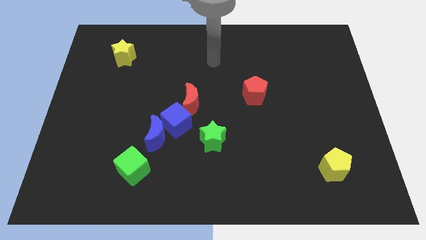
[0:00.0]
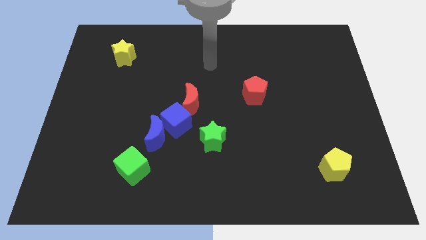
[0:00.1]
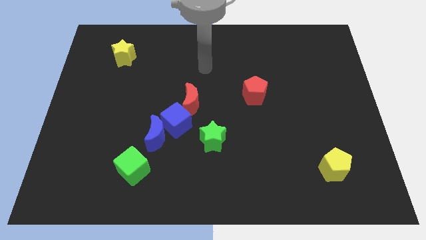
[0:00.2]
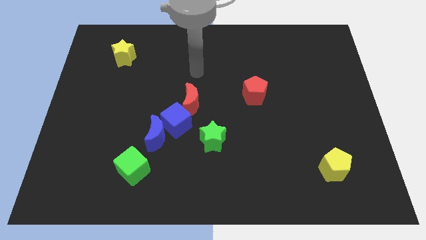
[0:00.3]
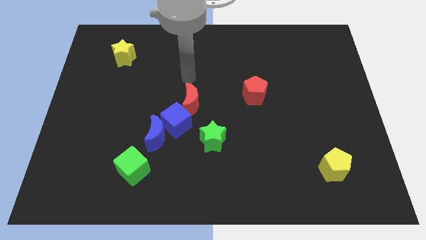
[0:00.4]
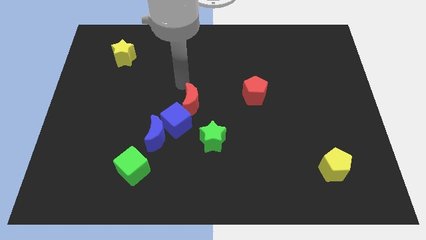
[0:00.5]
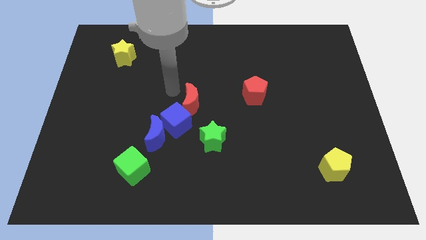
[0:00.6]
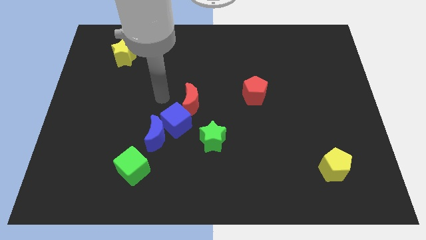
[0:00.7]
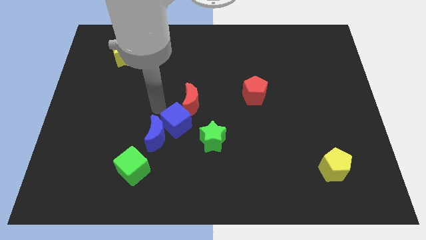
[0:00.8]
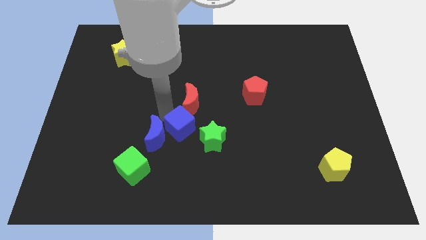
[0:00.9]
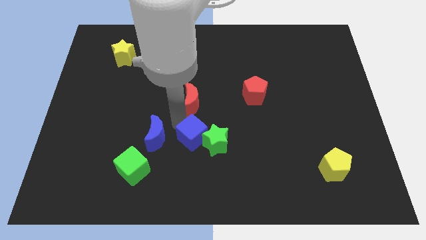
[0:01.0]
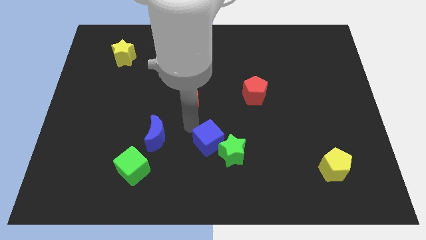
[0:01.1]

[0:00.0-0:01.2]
separate the red moon from the blue cube

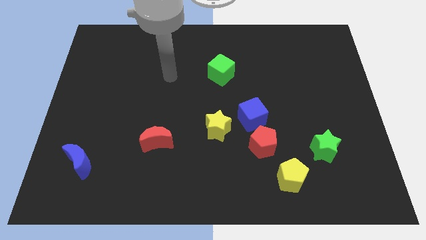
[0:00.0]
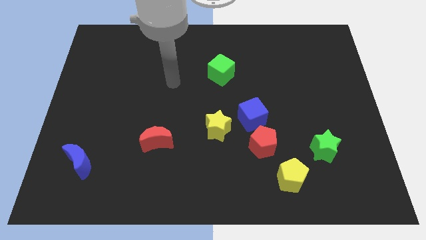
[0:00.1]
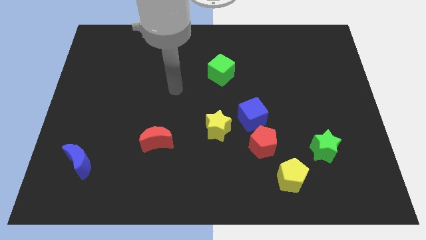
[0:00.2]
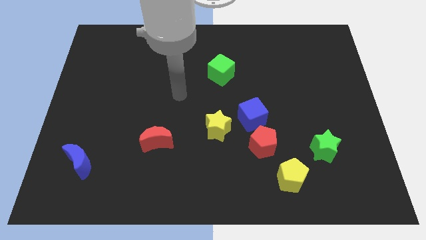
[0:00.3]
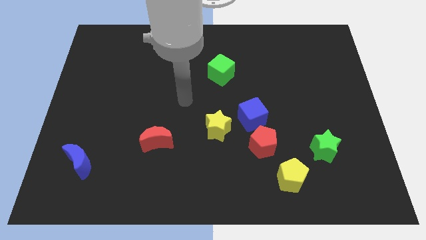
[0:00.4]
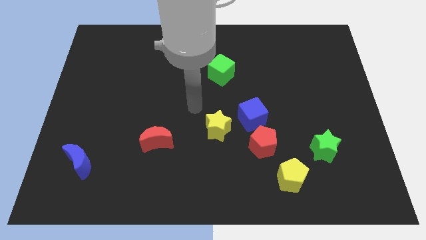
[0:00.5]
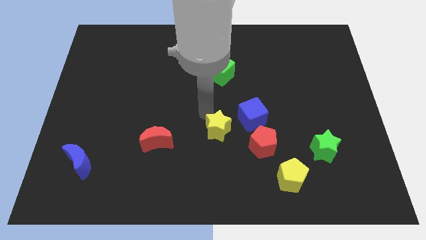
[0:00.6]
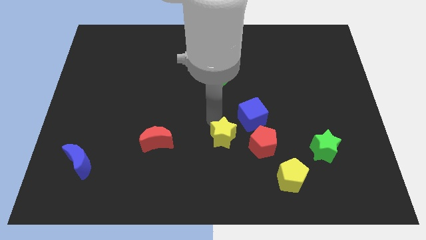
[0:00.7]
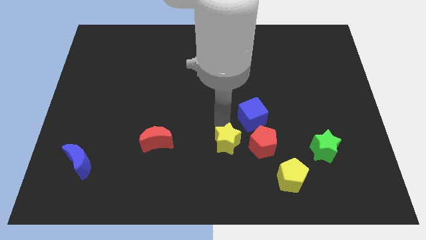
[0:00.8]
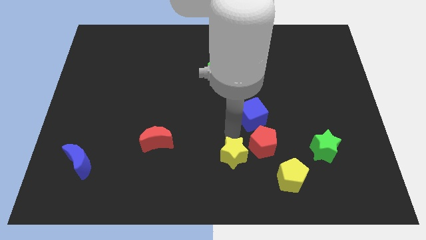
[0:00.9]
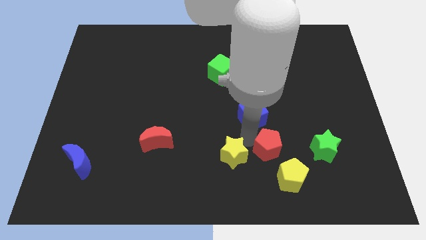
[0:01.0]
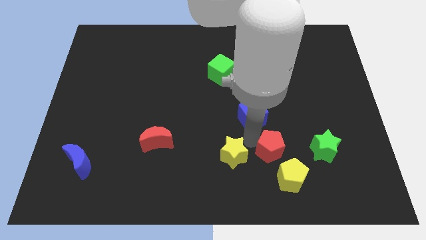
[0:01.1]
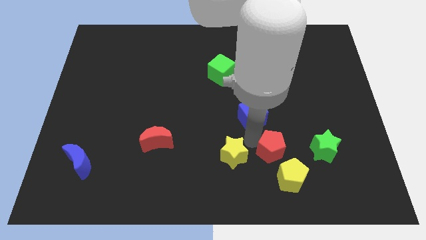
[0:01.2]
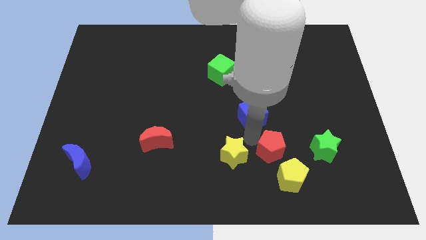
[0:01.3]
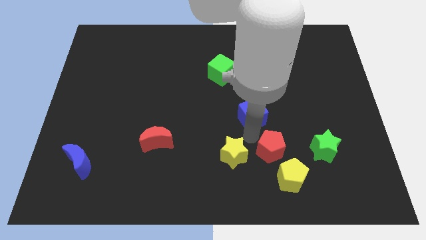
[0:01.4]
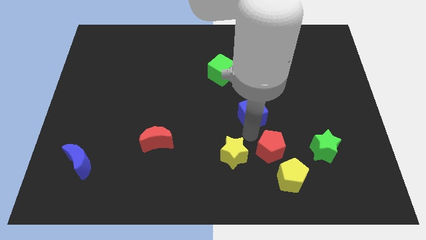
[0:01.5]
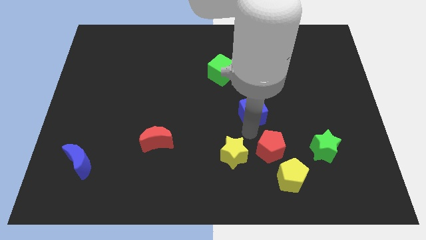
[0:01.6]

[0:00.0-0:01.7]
pull the blue cube apart from the red pentagon and yellow star

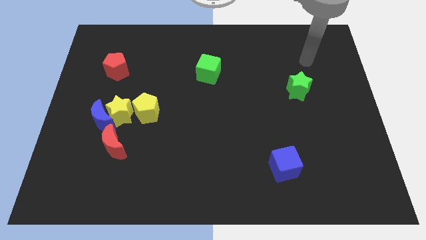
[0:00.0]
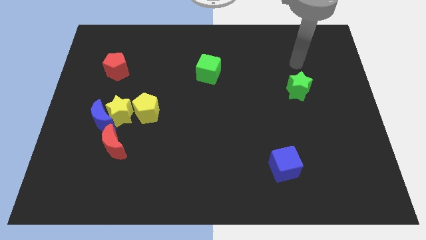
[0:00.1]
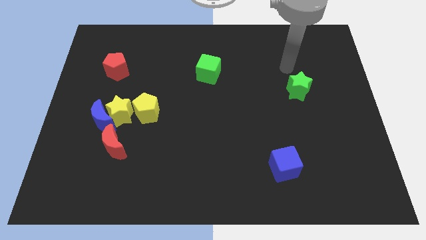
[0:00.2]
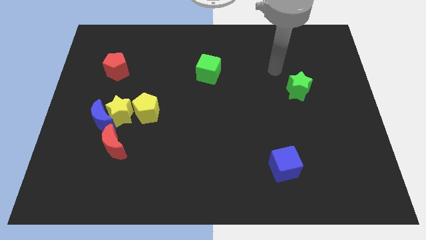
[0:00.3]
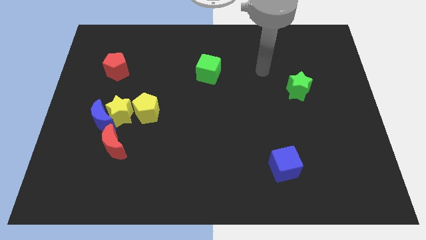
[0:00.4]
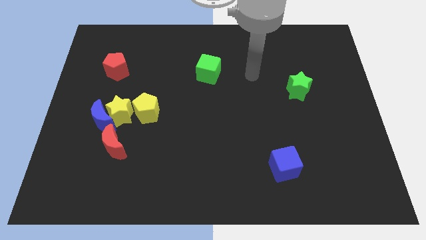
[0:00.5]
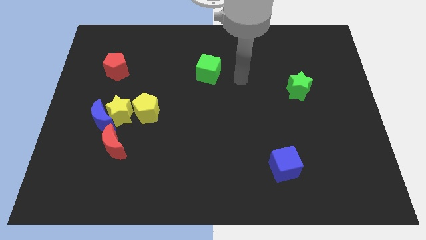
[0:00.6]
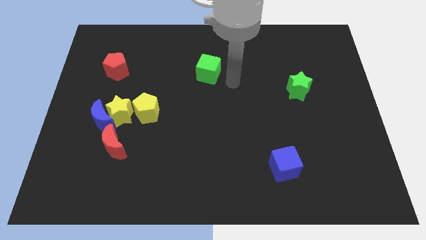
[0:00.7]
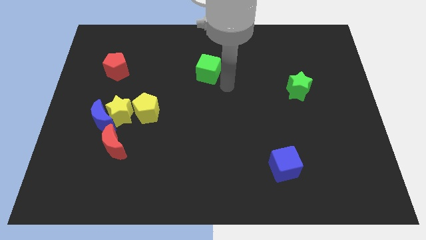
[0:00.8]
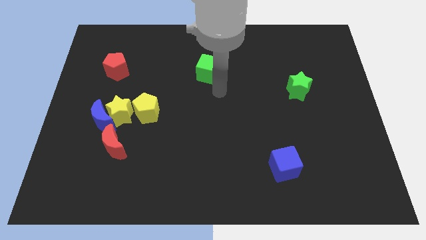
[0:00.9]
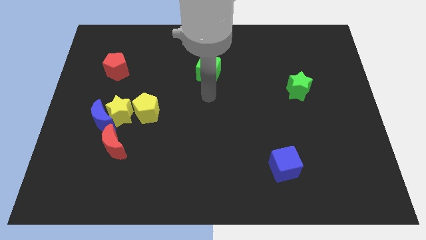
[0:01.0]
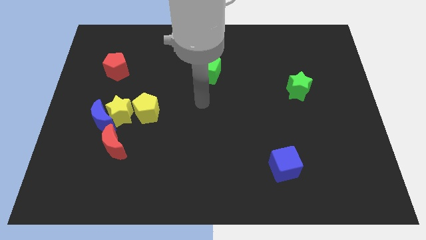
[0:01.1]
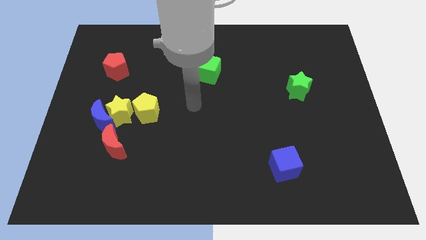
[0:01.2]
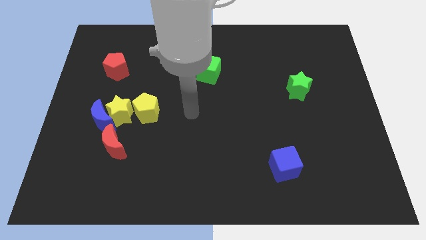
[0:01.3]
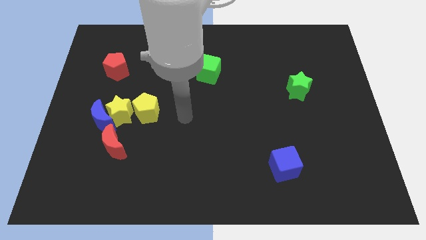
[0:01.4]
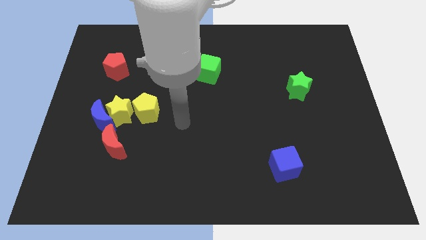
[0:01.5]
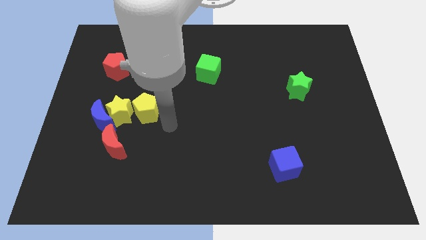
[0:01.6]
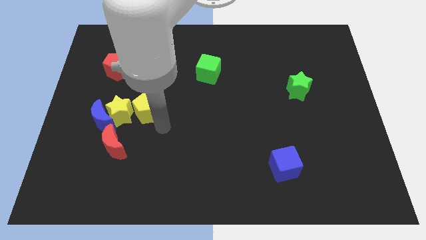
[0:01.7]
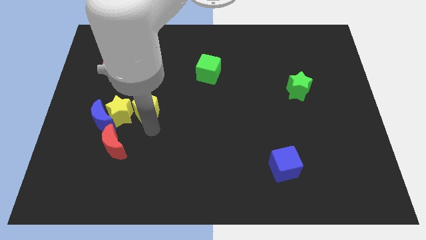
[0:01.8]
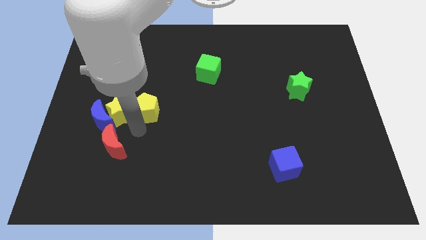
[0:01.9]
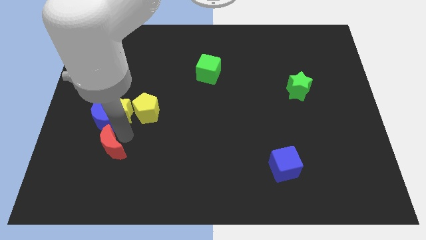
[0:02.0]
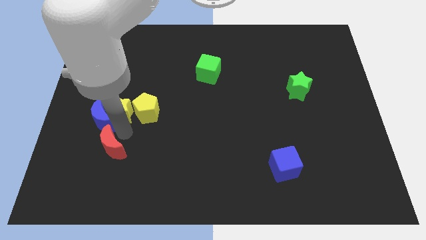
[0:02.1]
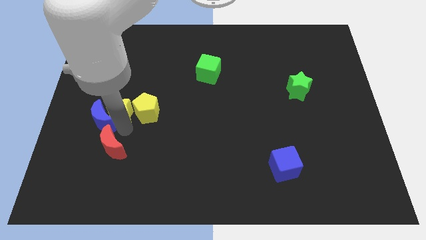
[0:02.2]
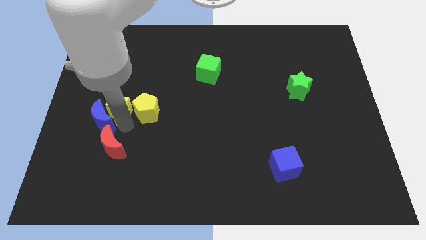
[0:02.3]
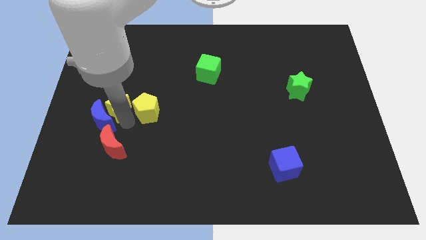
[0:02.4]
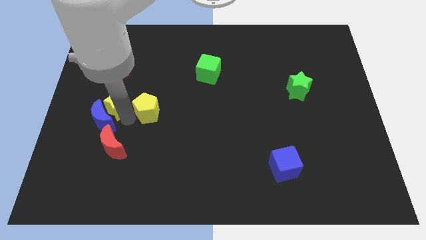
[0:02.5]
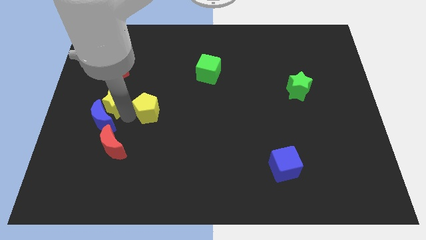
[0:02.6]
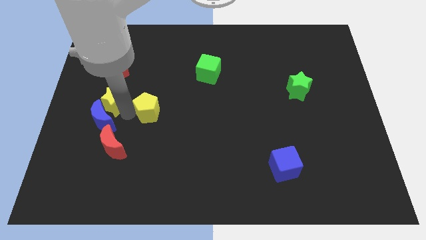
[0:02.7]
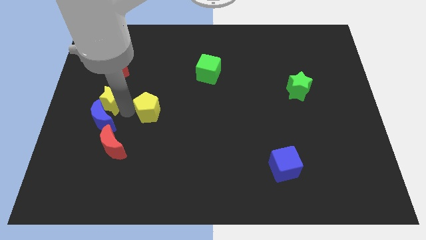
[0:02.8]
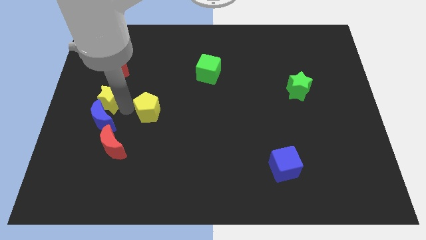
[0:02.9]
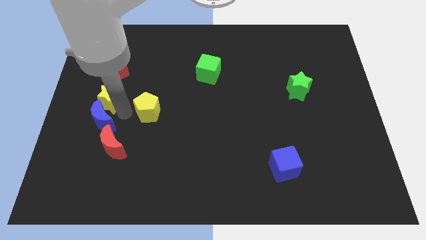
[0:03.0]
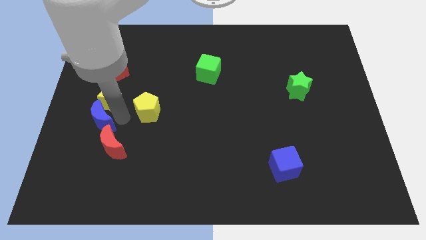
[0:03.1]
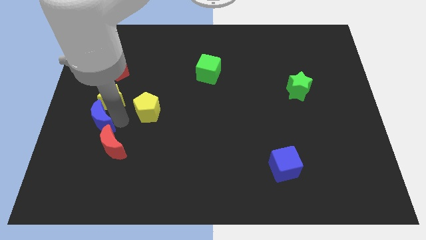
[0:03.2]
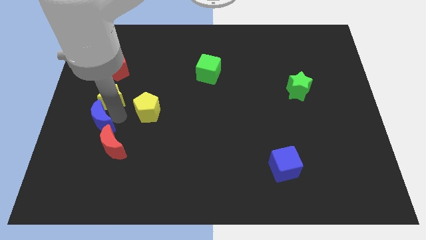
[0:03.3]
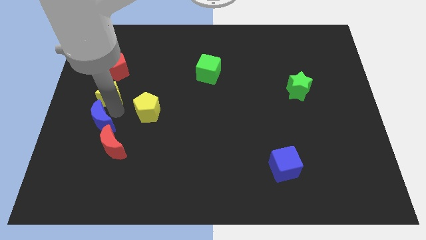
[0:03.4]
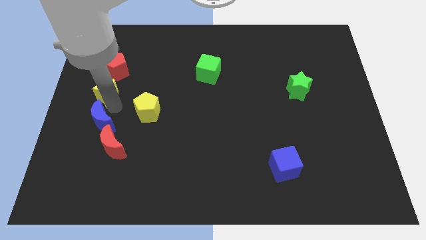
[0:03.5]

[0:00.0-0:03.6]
pull the yellow star apart from the group of blocks

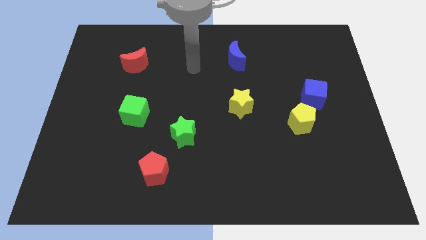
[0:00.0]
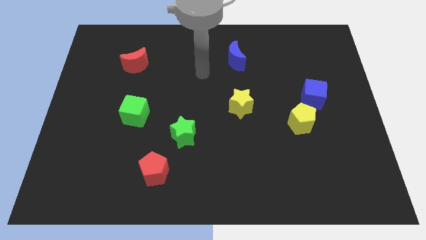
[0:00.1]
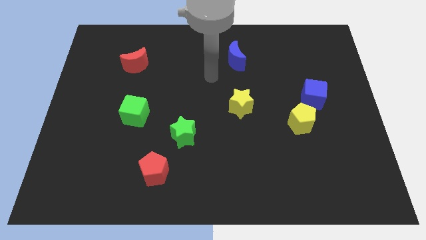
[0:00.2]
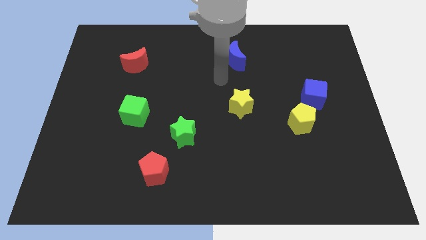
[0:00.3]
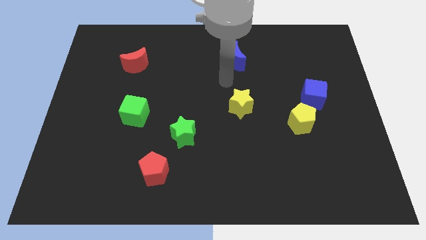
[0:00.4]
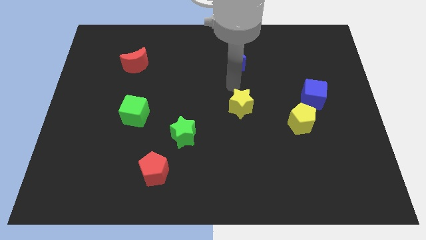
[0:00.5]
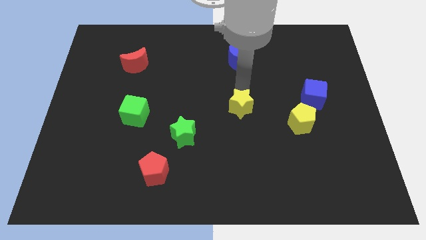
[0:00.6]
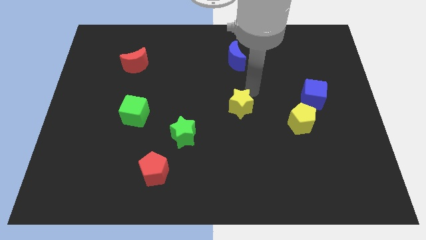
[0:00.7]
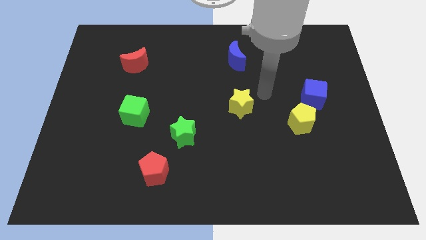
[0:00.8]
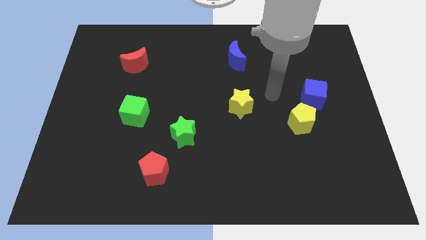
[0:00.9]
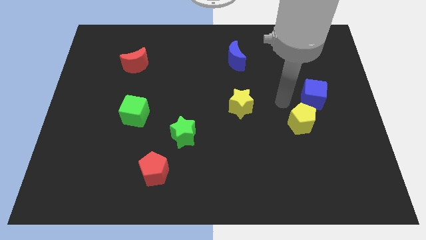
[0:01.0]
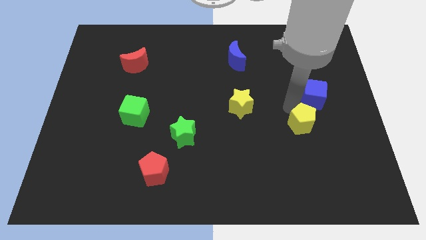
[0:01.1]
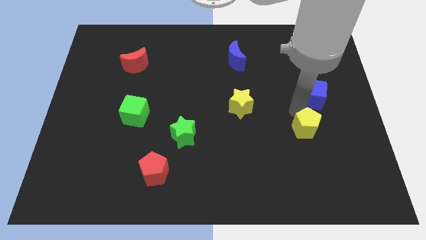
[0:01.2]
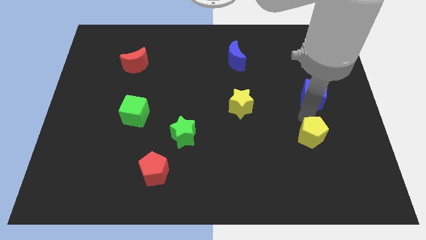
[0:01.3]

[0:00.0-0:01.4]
move the blue cube away from the yellow pentagon

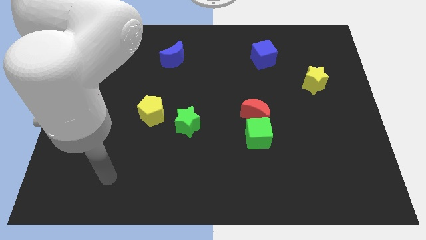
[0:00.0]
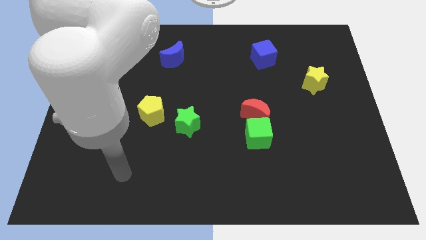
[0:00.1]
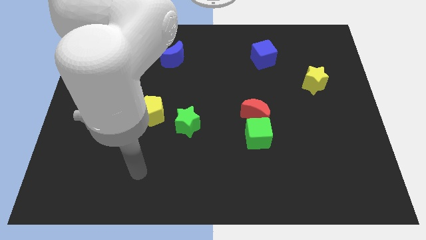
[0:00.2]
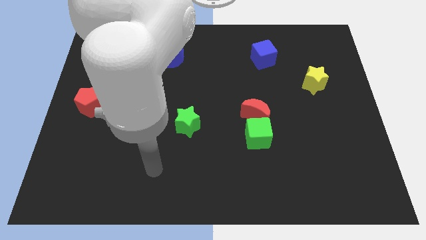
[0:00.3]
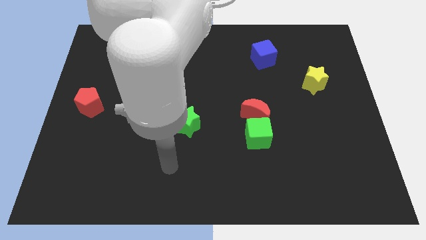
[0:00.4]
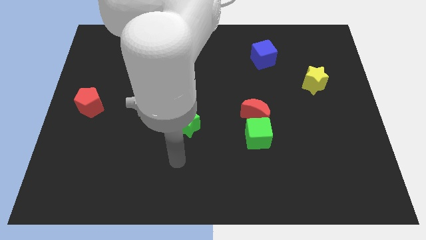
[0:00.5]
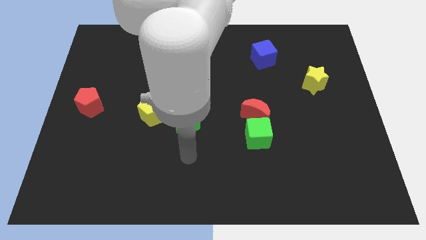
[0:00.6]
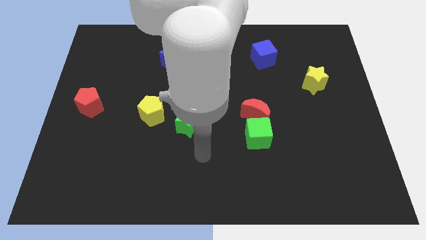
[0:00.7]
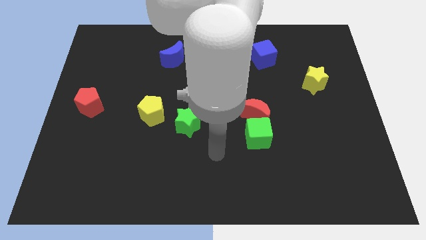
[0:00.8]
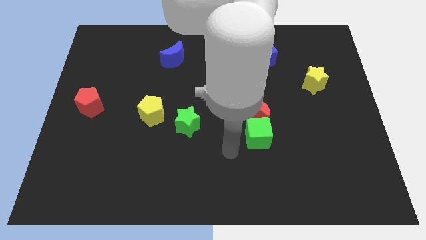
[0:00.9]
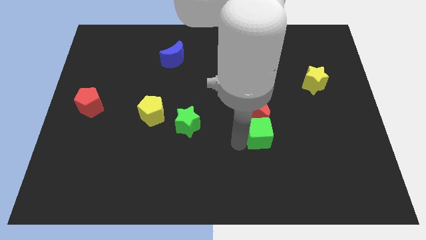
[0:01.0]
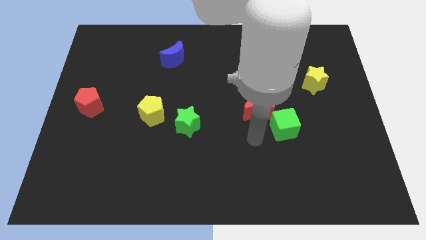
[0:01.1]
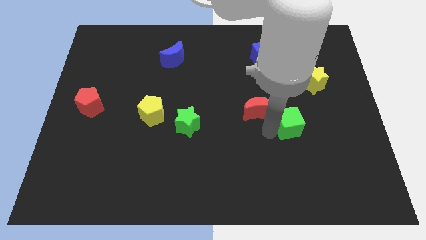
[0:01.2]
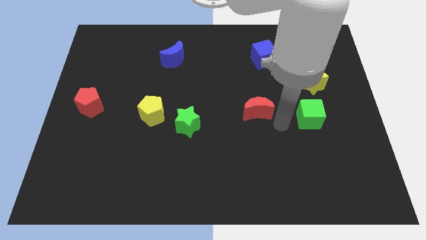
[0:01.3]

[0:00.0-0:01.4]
pull the red moon apart from the green cube
